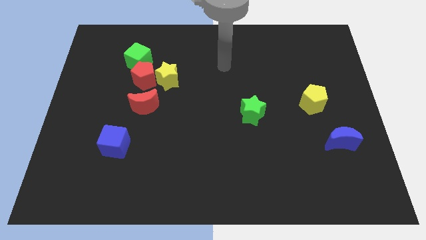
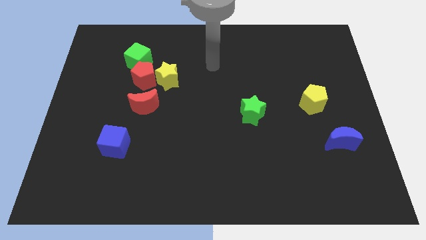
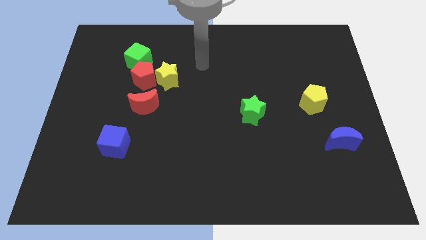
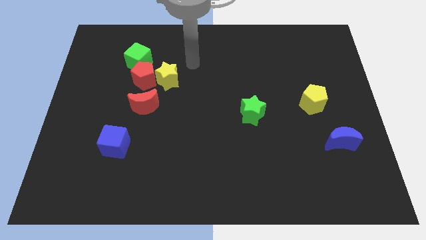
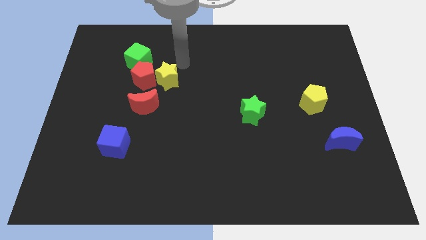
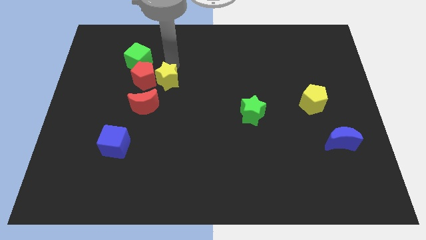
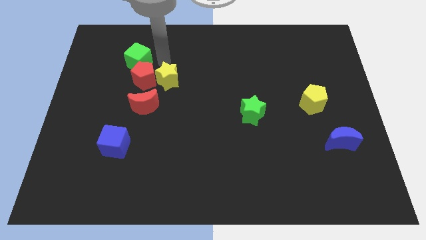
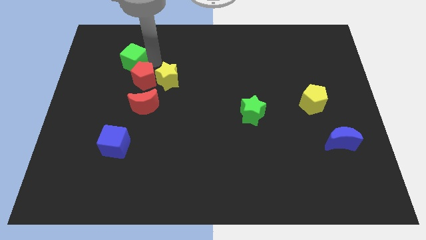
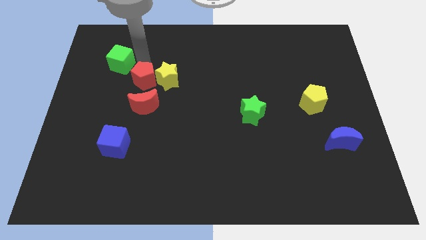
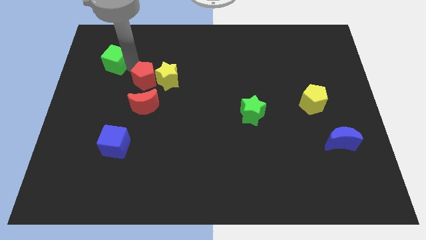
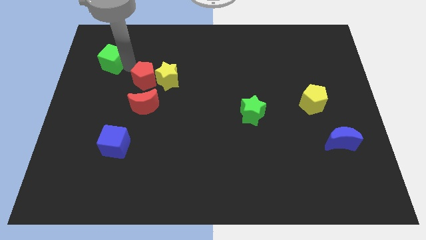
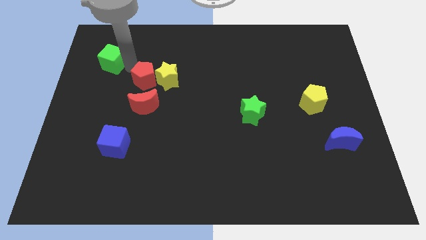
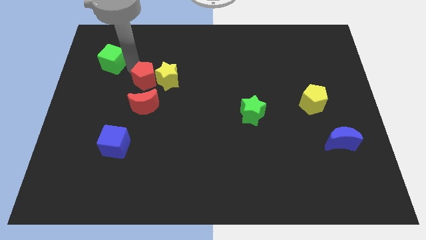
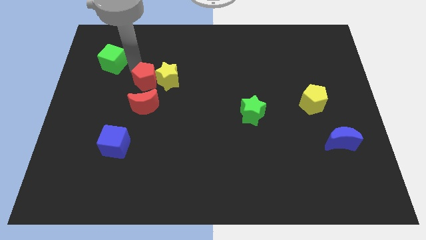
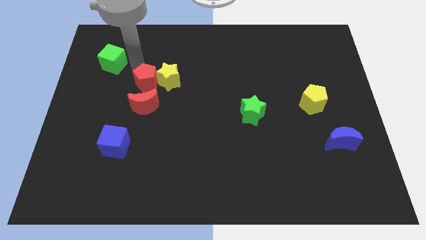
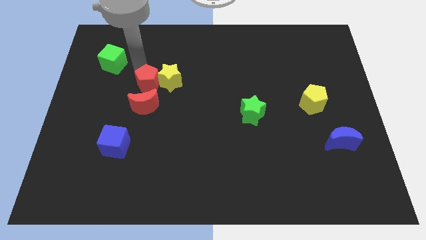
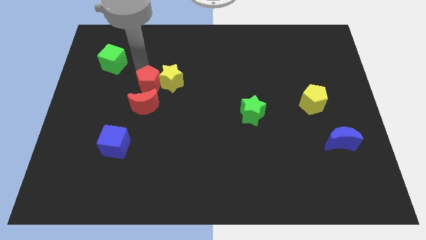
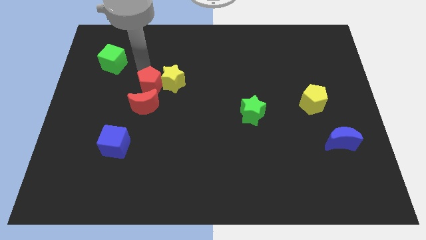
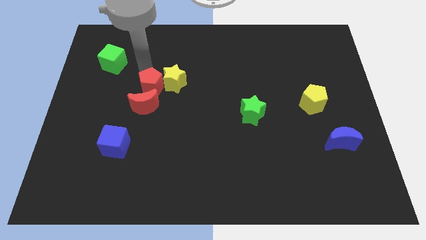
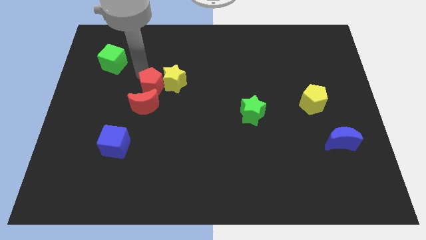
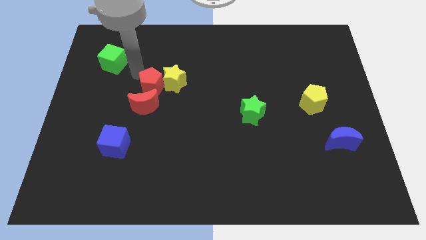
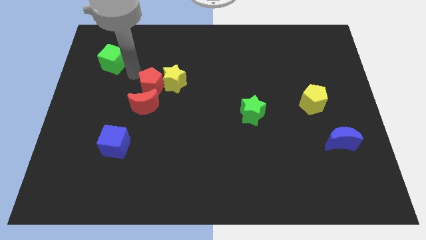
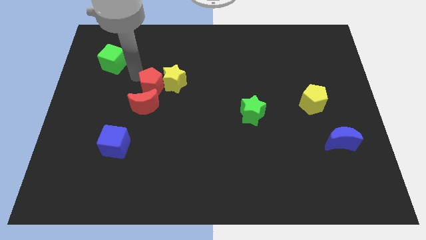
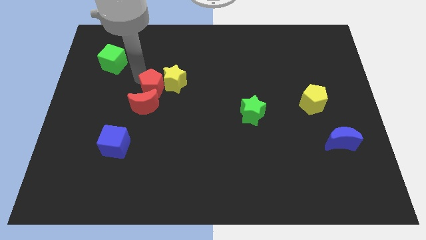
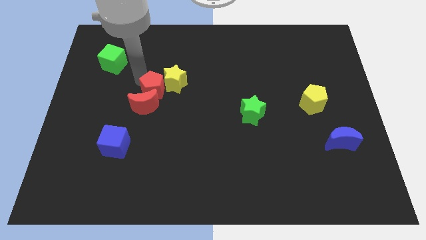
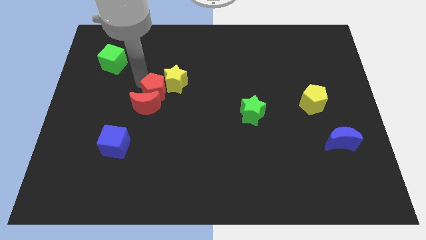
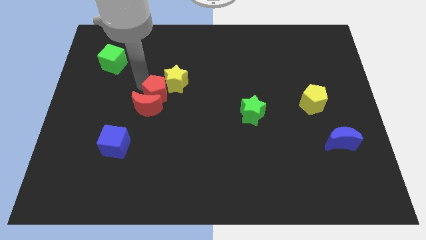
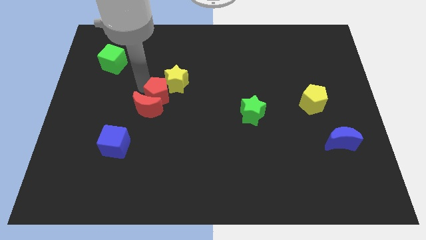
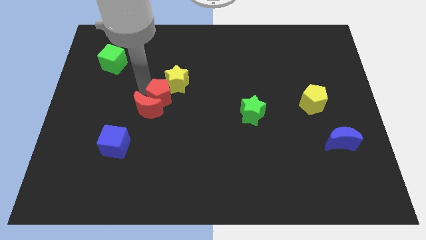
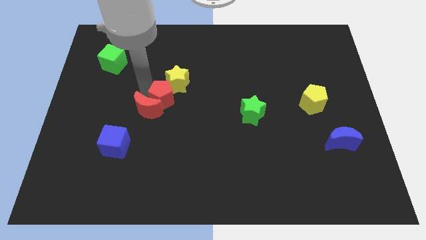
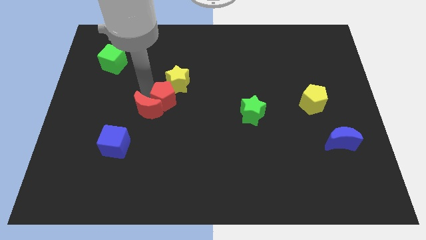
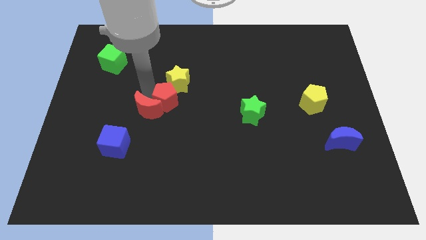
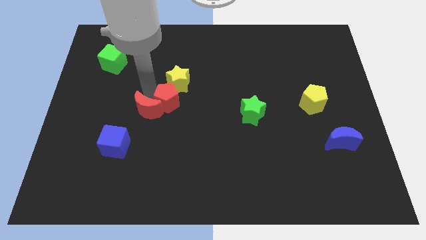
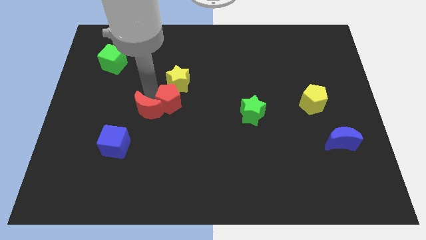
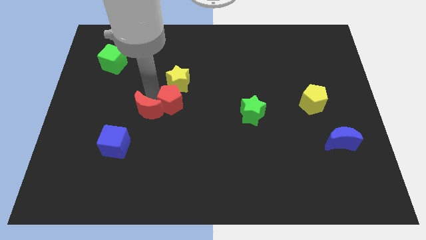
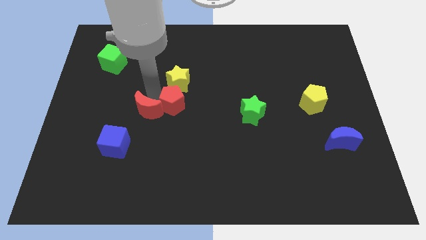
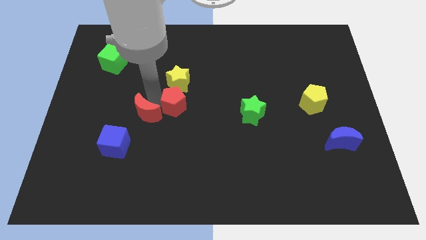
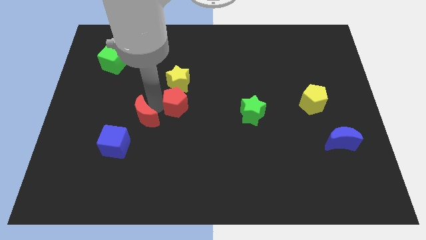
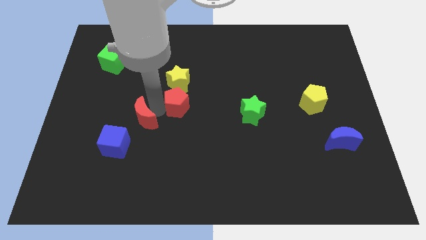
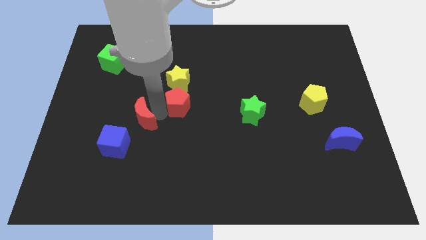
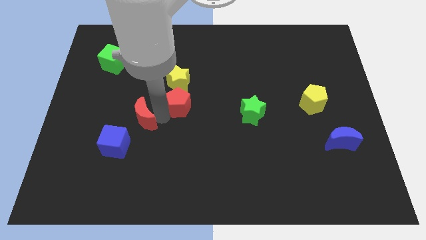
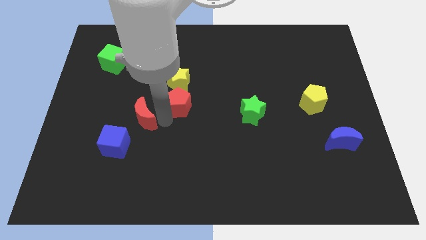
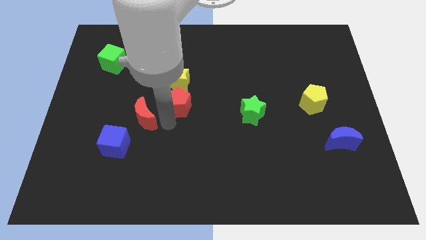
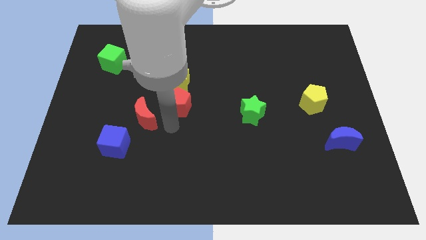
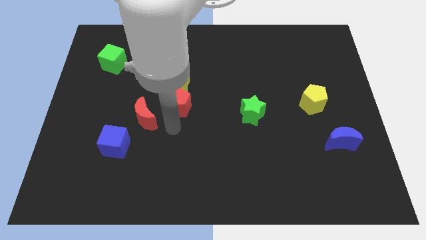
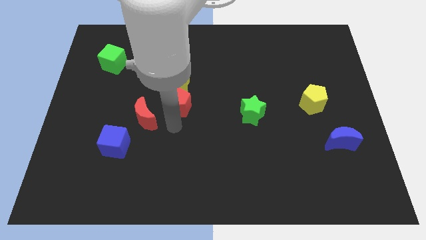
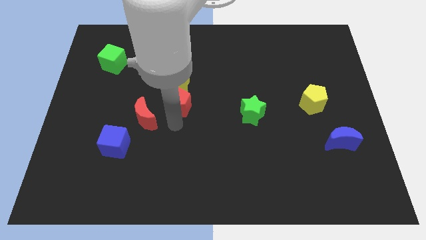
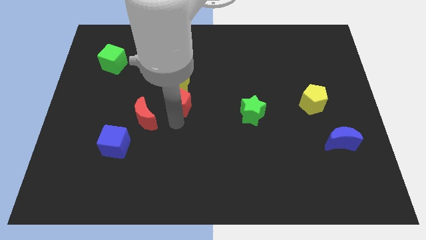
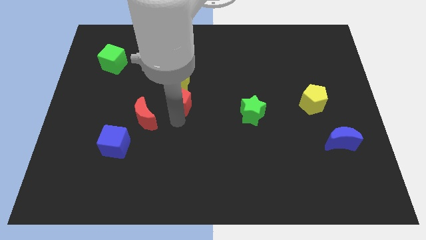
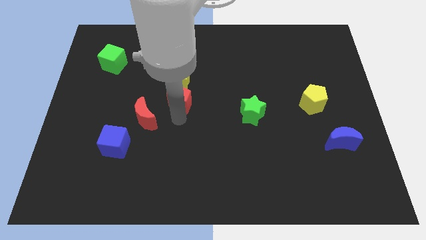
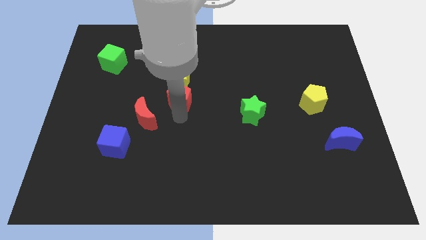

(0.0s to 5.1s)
slightly move the red pentagon right

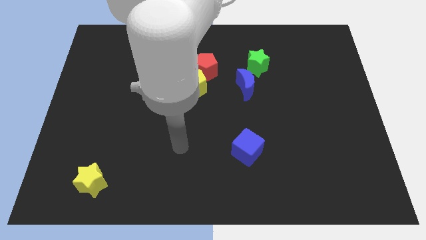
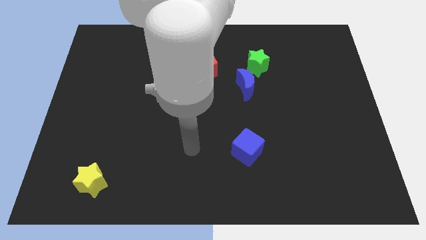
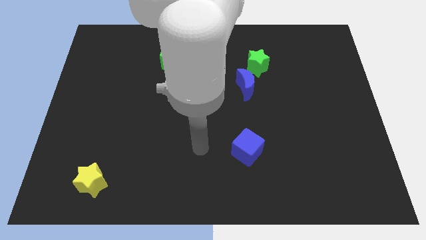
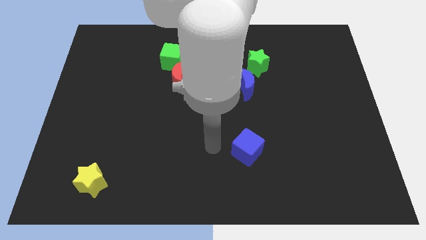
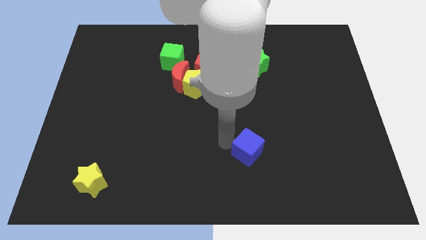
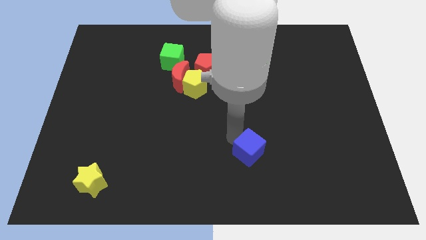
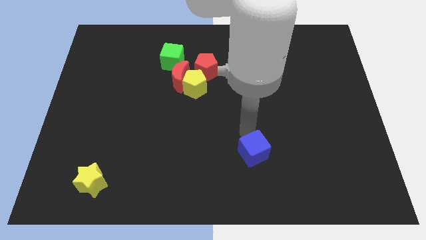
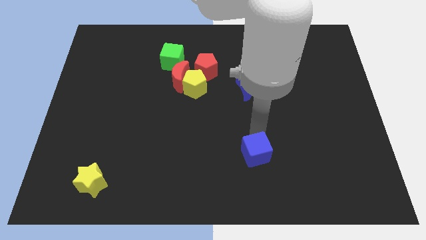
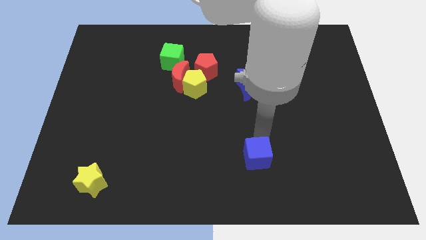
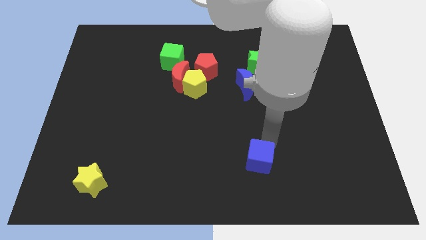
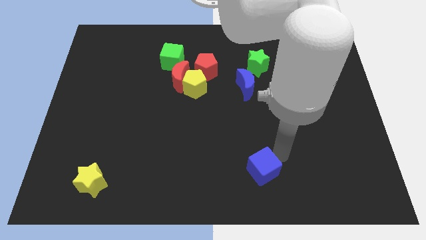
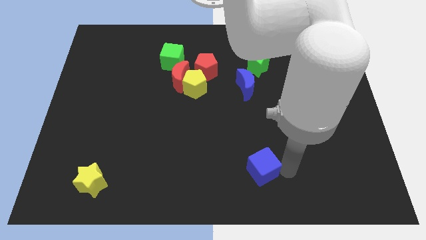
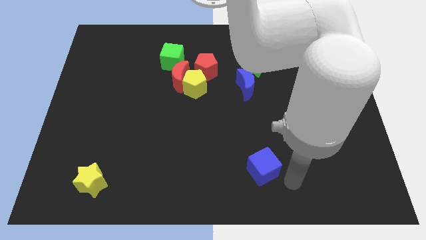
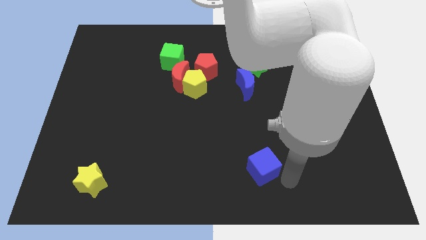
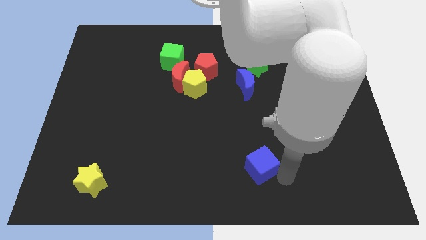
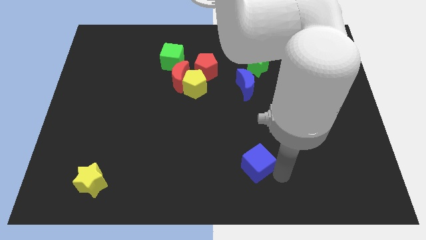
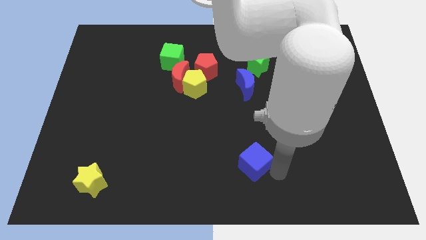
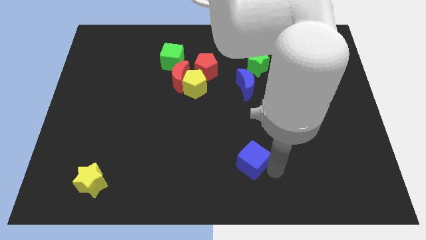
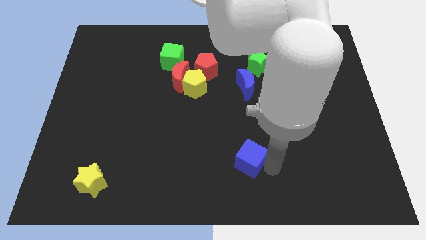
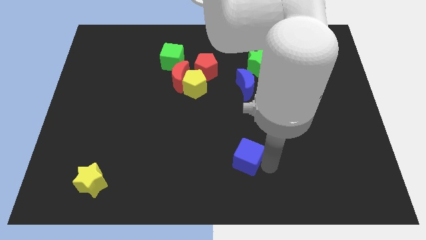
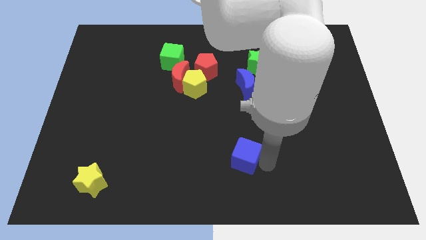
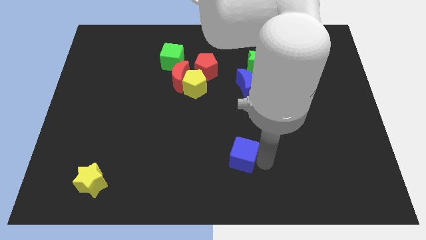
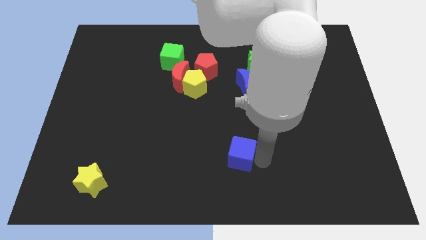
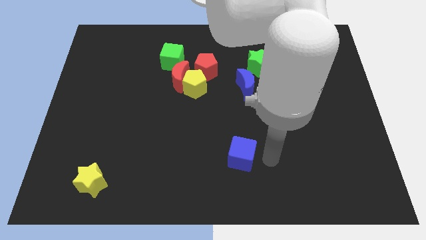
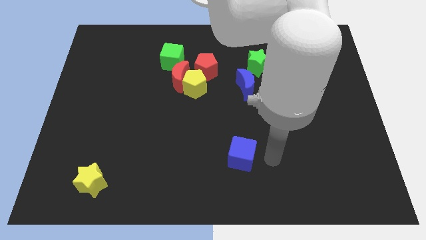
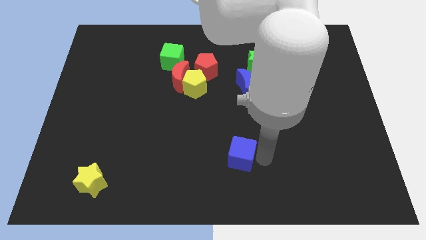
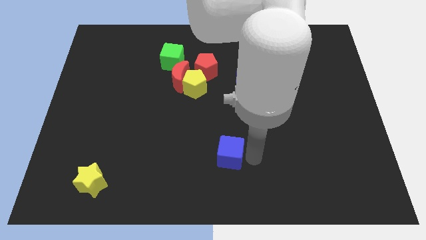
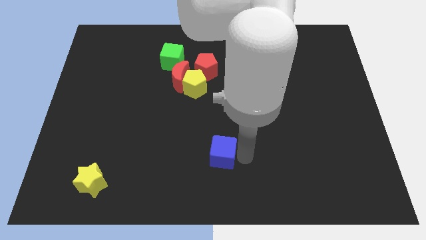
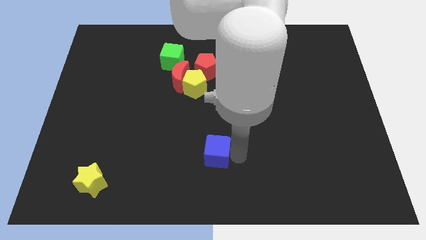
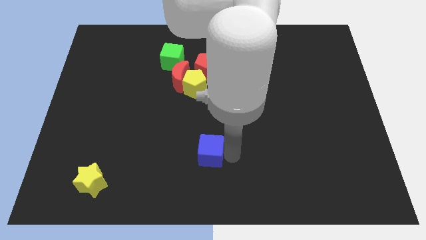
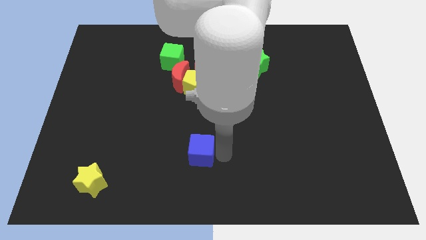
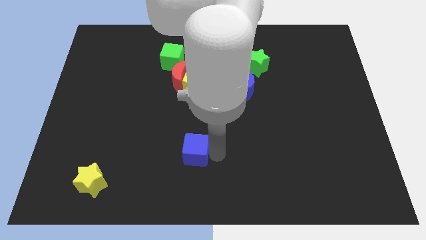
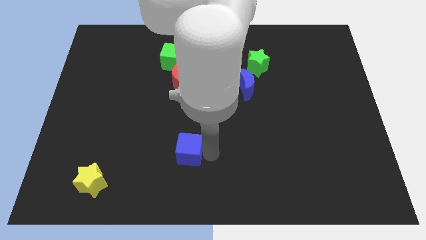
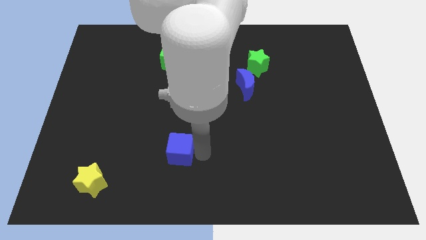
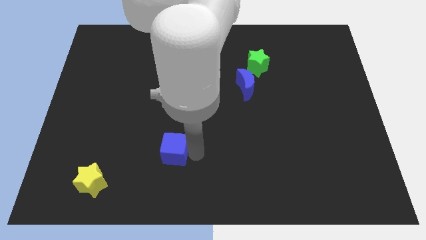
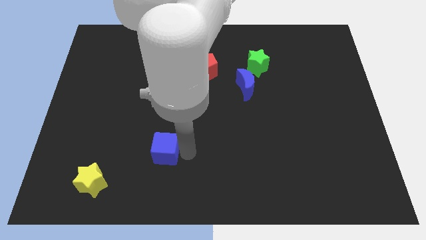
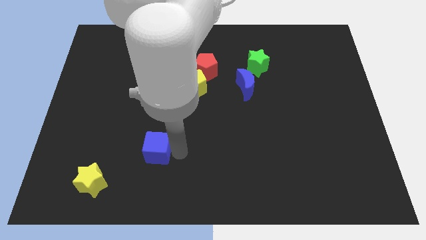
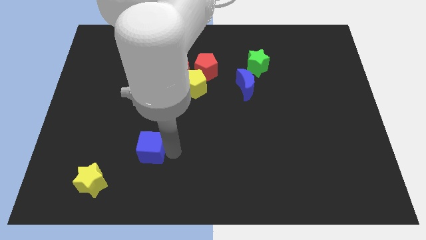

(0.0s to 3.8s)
slide the blue cube to the left
